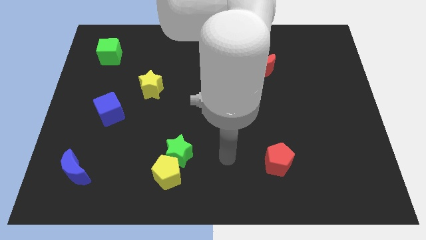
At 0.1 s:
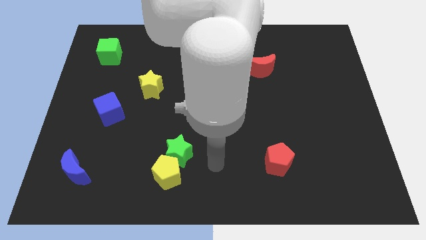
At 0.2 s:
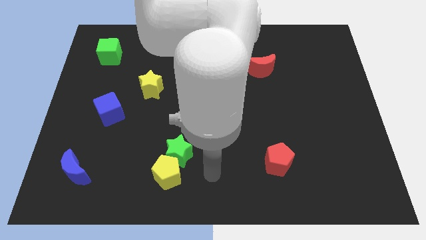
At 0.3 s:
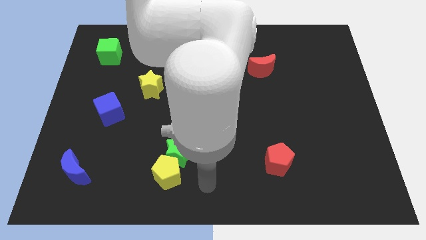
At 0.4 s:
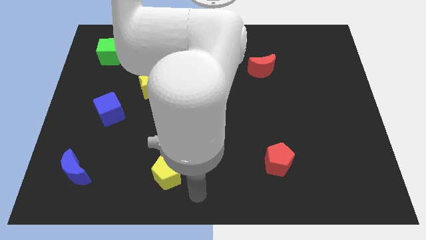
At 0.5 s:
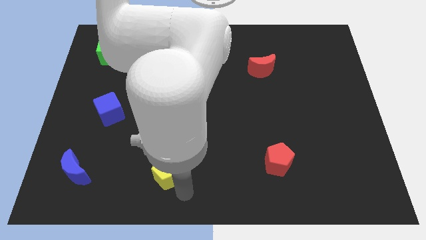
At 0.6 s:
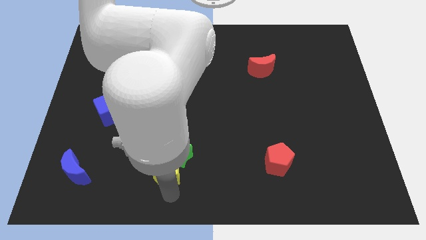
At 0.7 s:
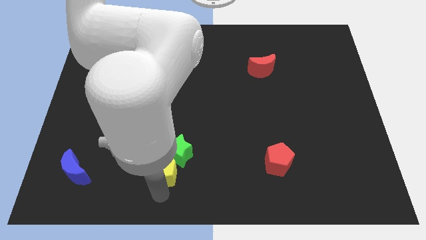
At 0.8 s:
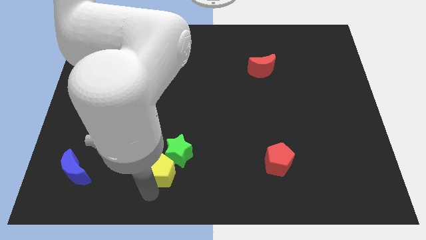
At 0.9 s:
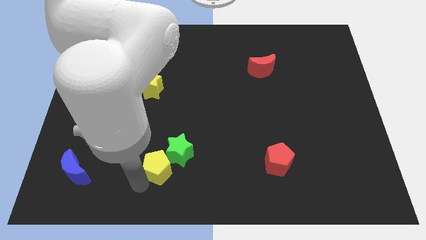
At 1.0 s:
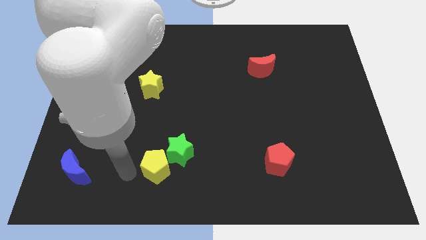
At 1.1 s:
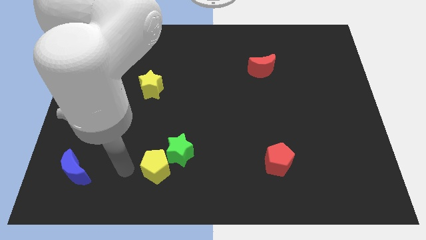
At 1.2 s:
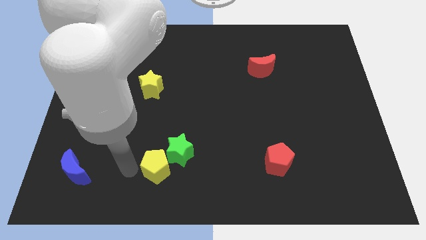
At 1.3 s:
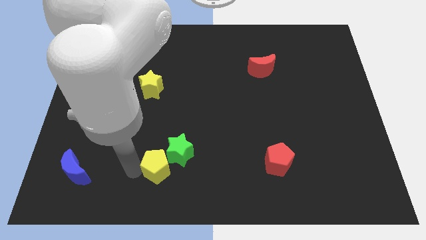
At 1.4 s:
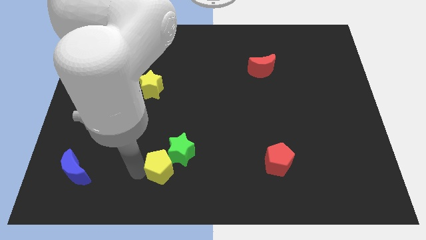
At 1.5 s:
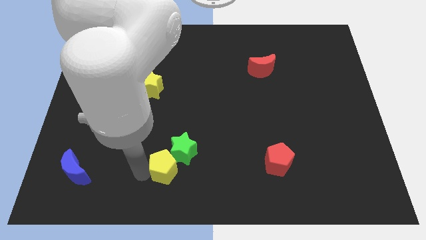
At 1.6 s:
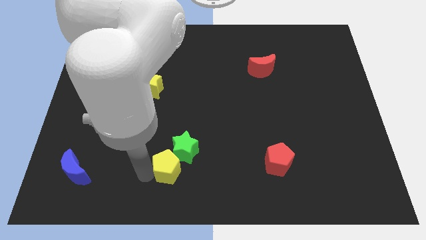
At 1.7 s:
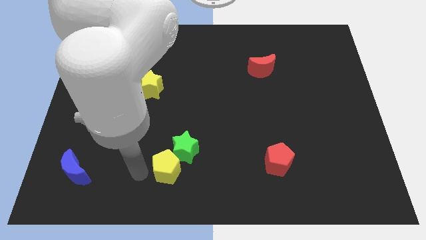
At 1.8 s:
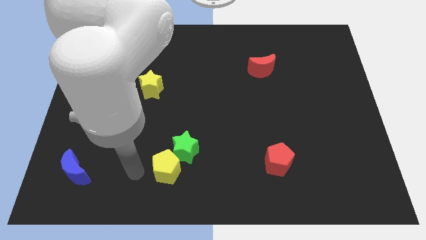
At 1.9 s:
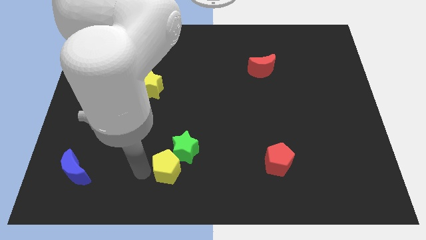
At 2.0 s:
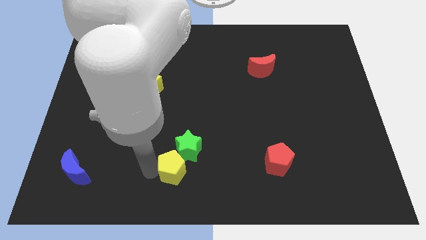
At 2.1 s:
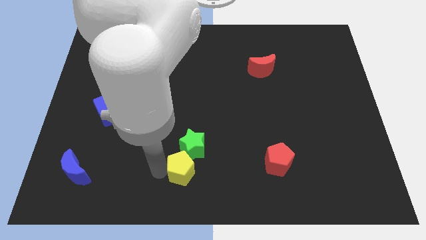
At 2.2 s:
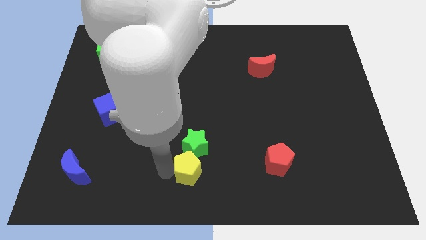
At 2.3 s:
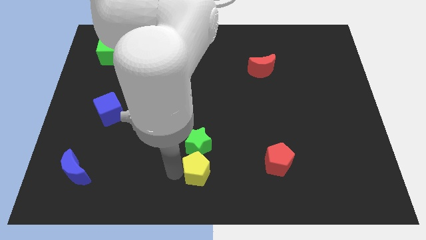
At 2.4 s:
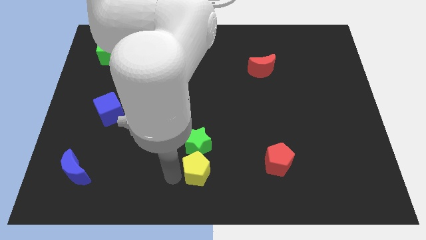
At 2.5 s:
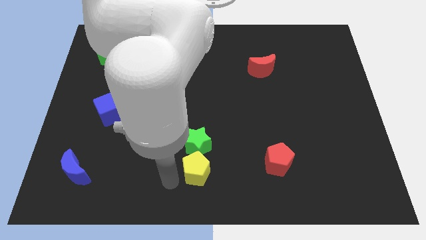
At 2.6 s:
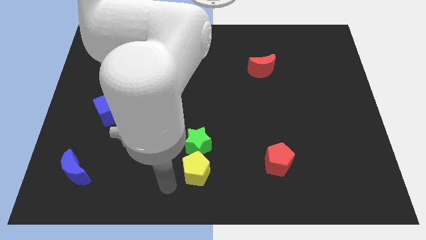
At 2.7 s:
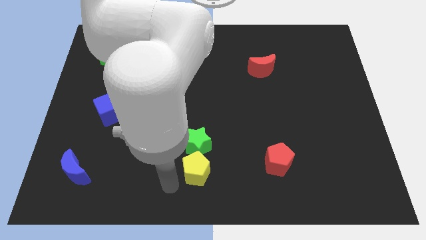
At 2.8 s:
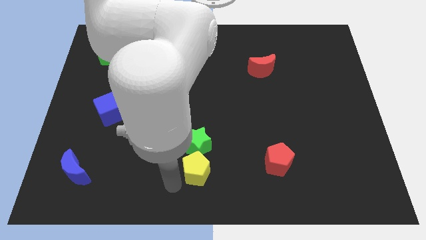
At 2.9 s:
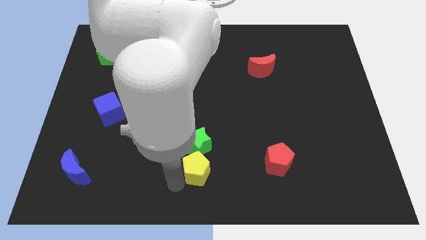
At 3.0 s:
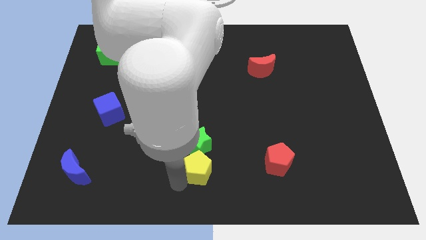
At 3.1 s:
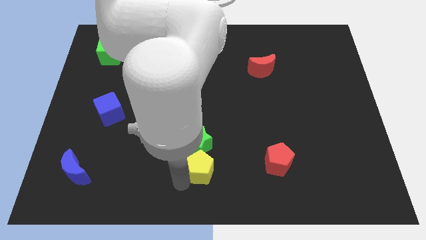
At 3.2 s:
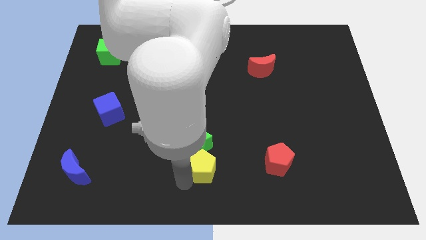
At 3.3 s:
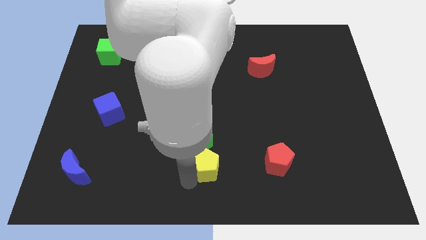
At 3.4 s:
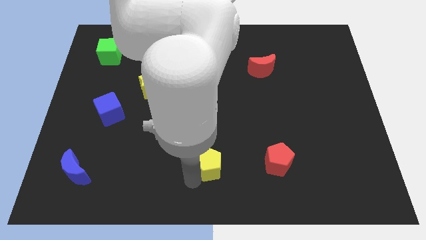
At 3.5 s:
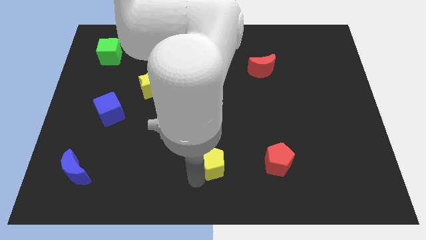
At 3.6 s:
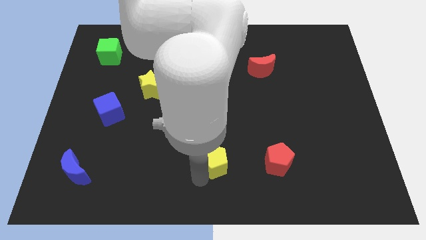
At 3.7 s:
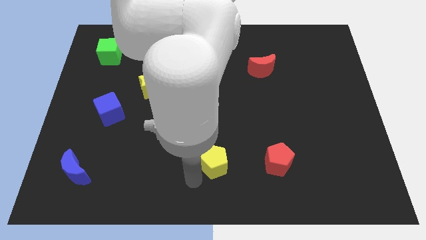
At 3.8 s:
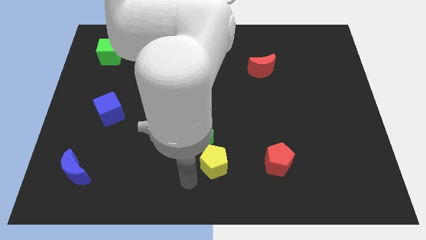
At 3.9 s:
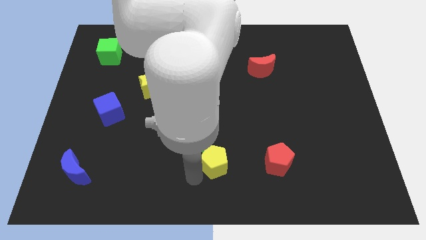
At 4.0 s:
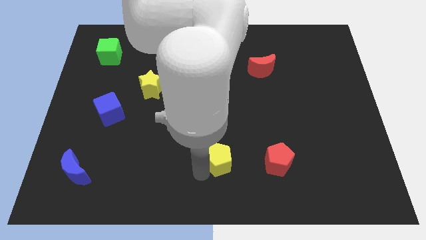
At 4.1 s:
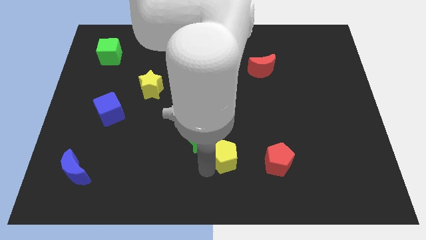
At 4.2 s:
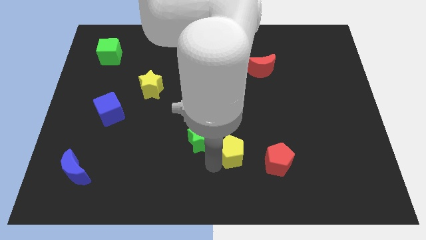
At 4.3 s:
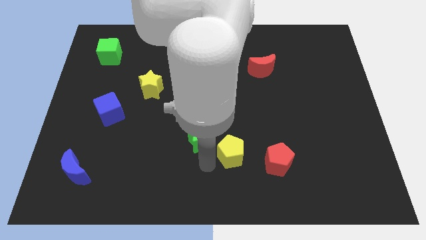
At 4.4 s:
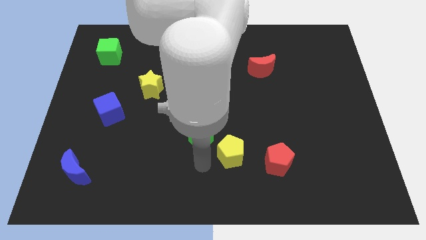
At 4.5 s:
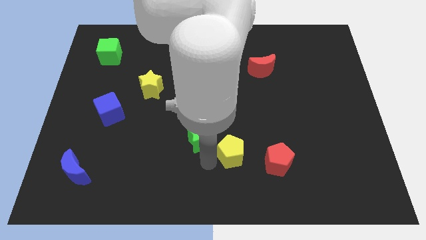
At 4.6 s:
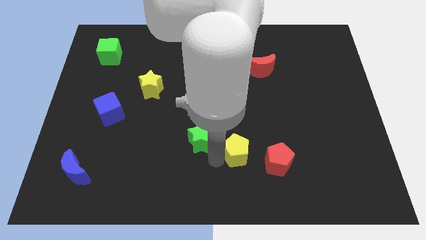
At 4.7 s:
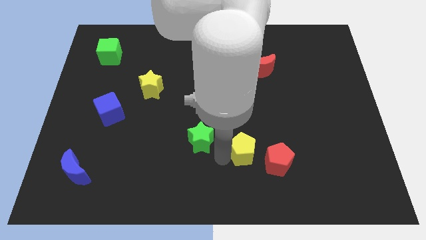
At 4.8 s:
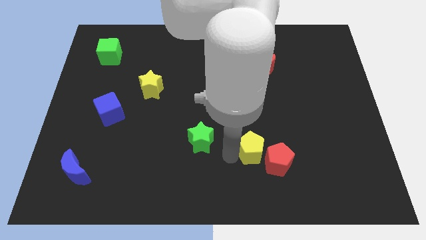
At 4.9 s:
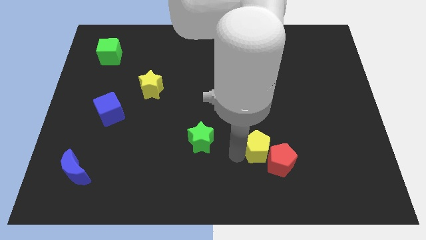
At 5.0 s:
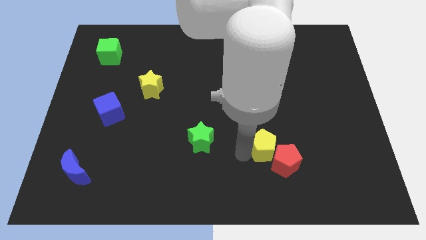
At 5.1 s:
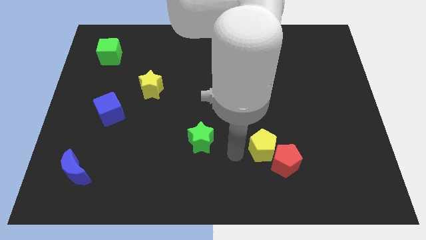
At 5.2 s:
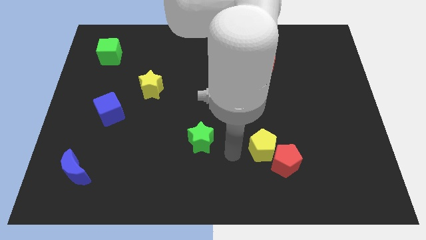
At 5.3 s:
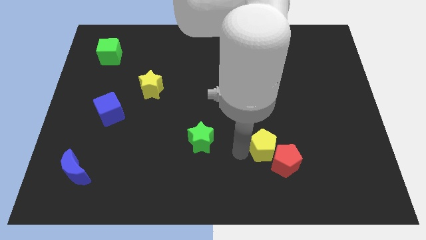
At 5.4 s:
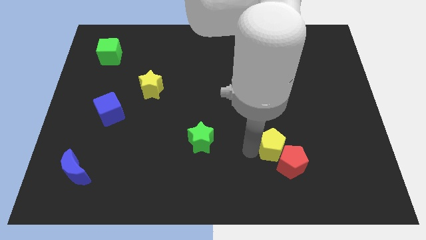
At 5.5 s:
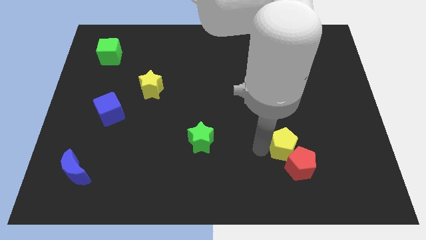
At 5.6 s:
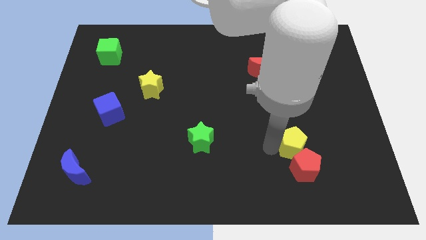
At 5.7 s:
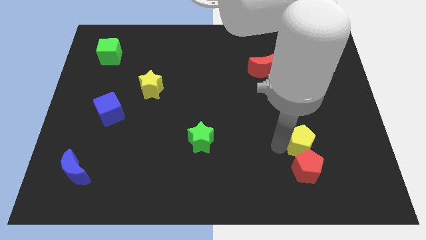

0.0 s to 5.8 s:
slide the yellow pentagon to the top right side of the red pentagon
